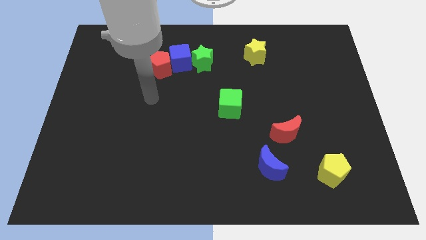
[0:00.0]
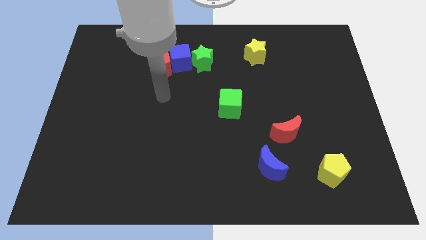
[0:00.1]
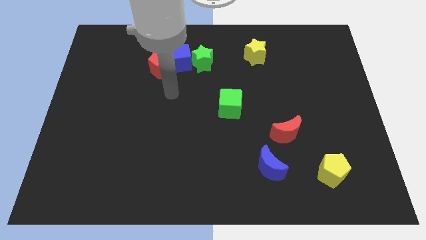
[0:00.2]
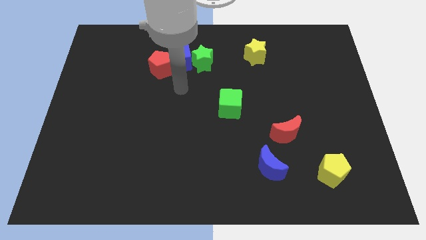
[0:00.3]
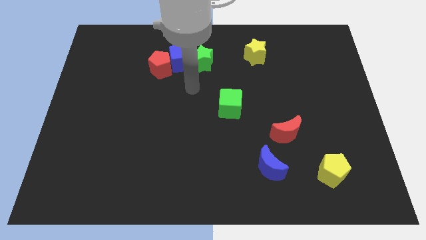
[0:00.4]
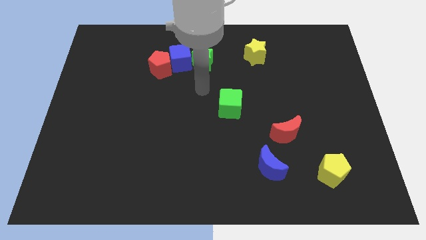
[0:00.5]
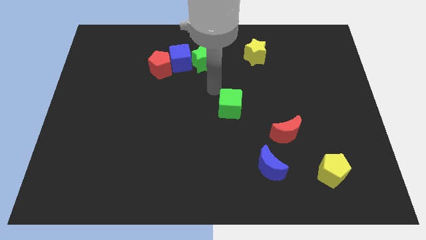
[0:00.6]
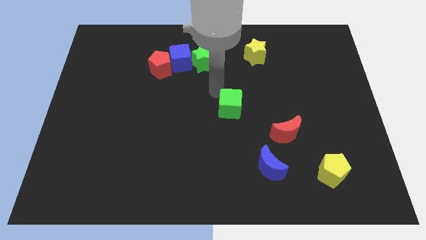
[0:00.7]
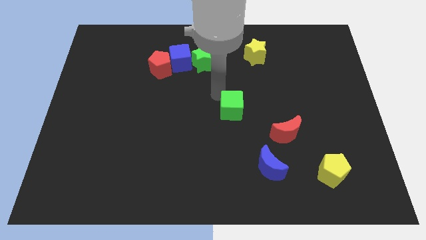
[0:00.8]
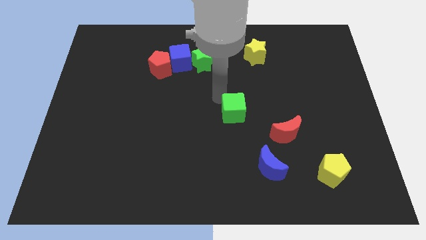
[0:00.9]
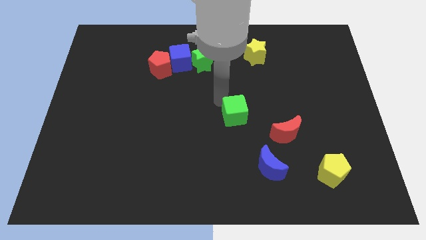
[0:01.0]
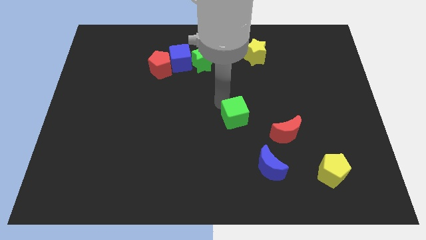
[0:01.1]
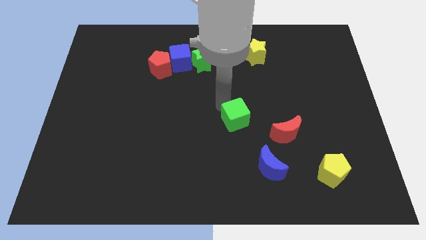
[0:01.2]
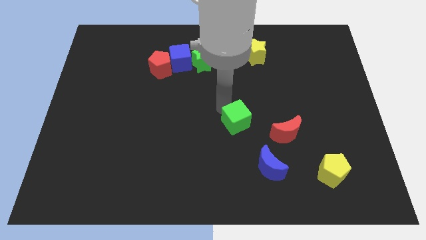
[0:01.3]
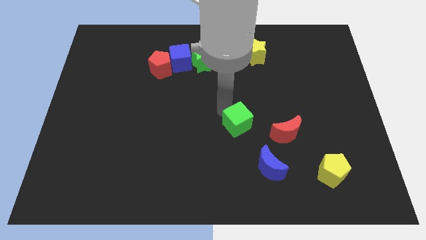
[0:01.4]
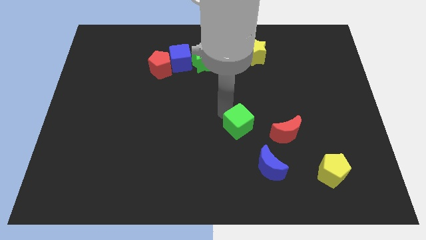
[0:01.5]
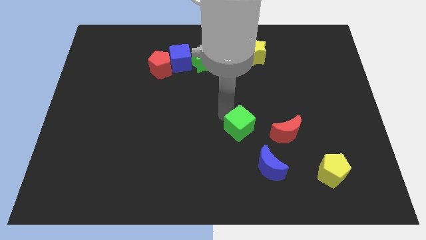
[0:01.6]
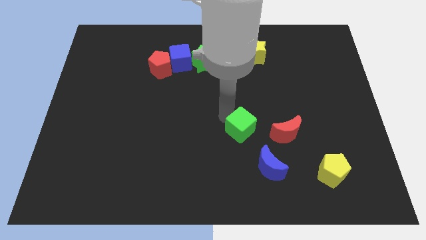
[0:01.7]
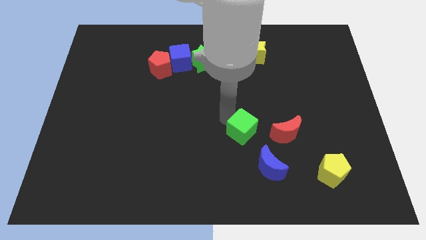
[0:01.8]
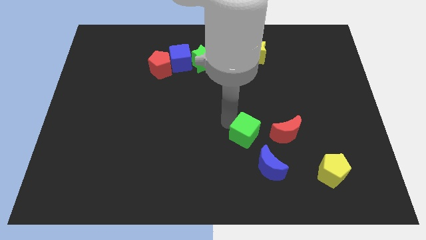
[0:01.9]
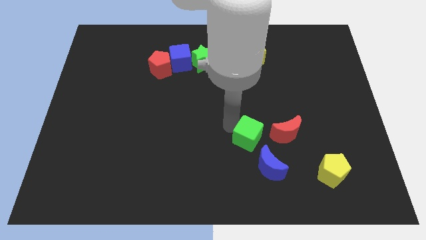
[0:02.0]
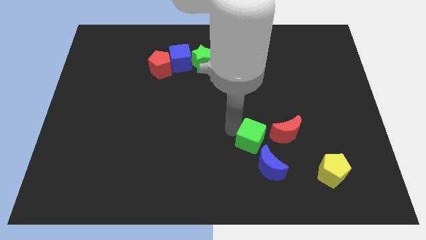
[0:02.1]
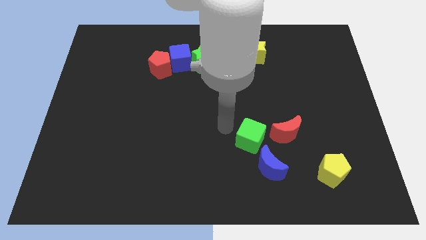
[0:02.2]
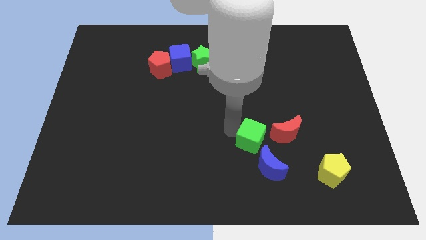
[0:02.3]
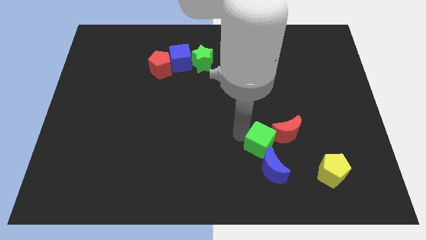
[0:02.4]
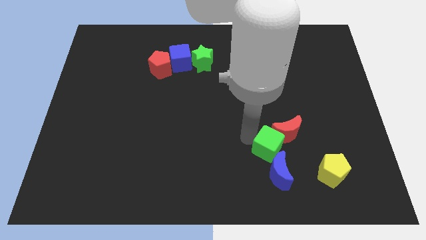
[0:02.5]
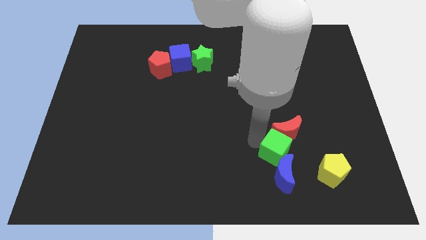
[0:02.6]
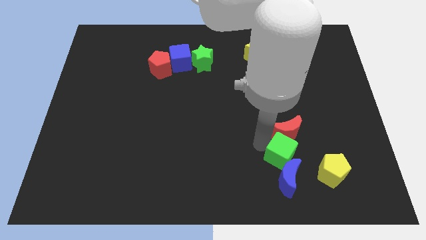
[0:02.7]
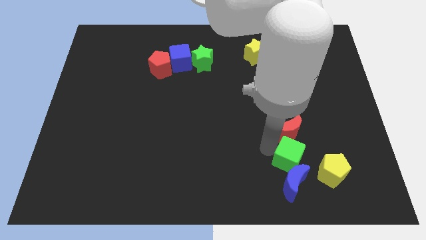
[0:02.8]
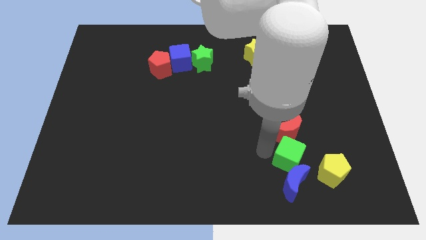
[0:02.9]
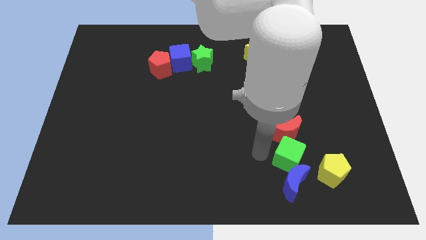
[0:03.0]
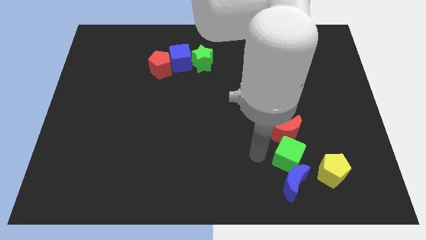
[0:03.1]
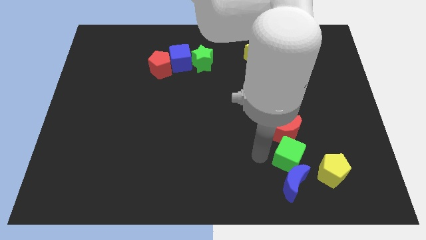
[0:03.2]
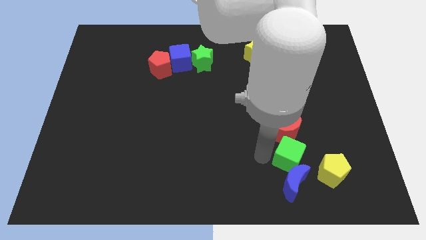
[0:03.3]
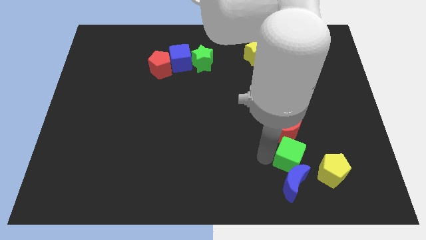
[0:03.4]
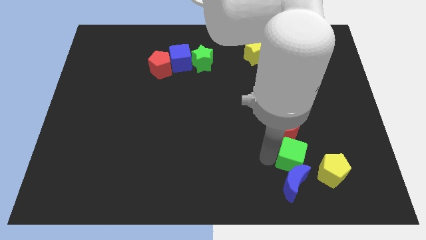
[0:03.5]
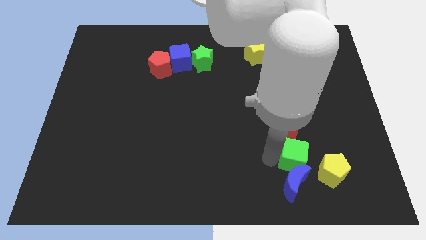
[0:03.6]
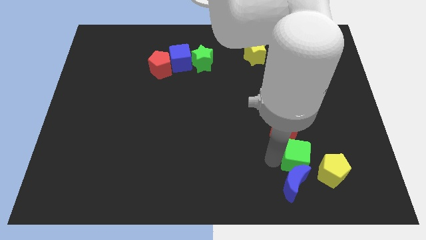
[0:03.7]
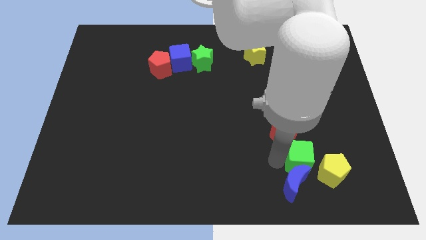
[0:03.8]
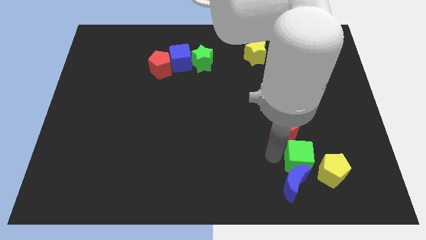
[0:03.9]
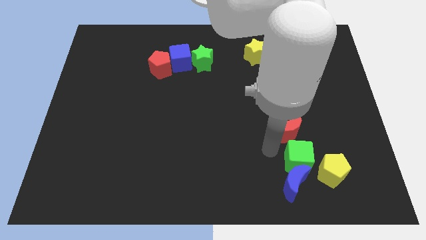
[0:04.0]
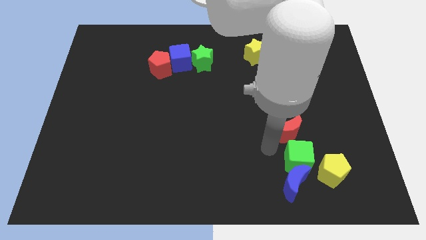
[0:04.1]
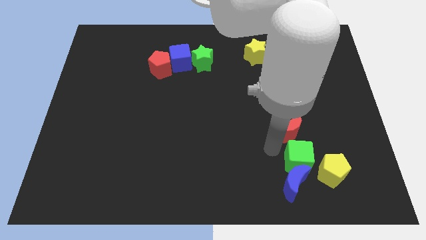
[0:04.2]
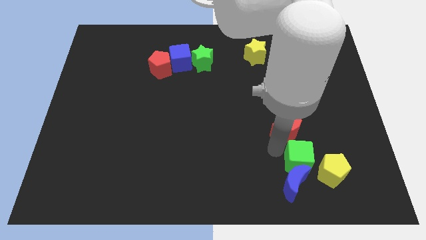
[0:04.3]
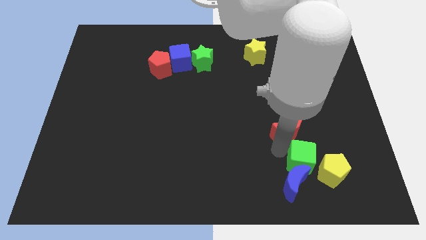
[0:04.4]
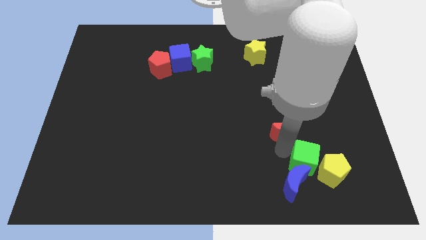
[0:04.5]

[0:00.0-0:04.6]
move the green cube close to the yellow pentagon

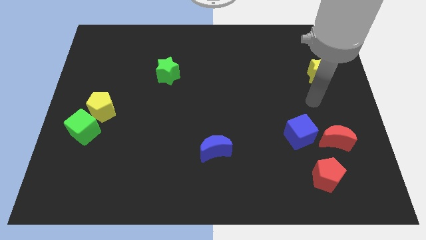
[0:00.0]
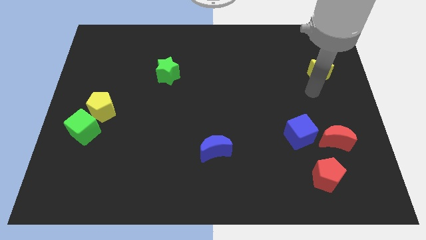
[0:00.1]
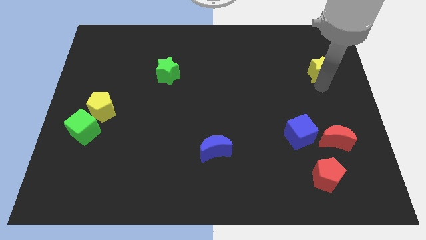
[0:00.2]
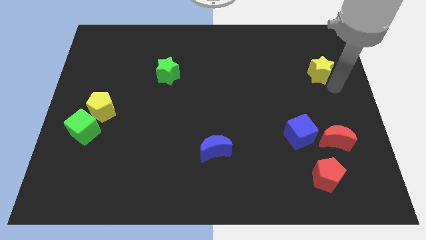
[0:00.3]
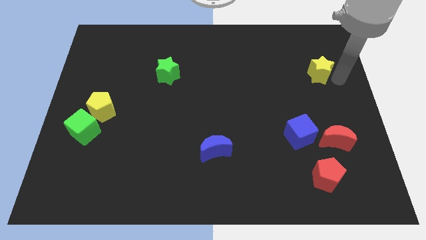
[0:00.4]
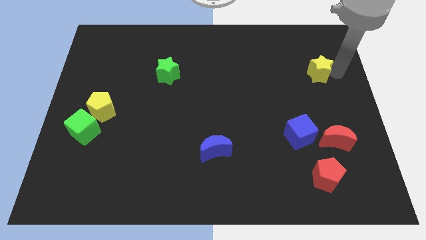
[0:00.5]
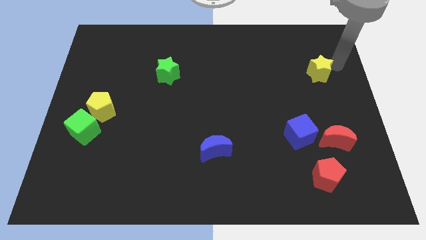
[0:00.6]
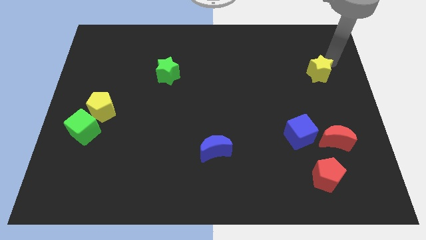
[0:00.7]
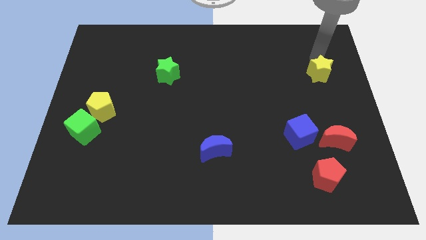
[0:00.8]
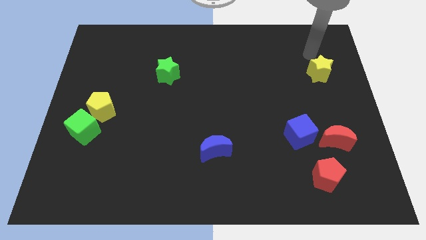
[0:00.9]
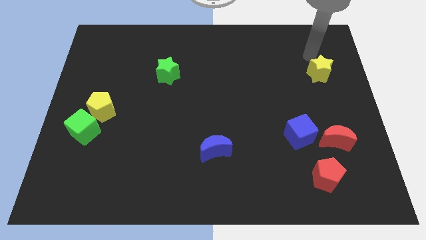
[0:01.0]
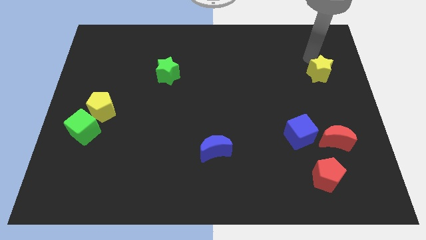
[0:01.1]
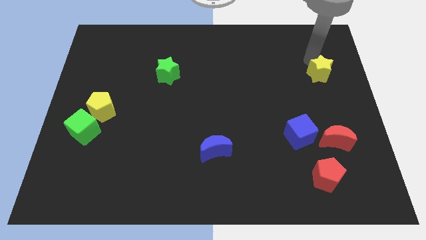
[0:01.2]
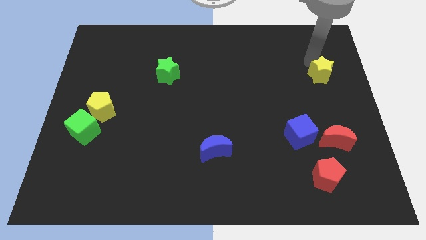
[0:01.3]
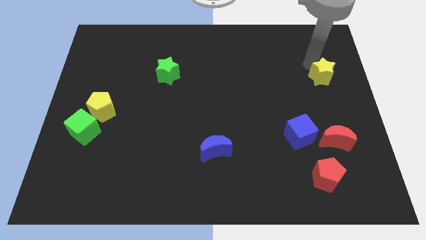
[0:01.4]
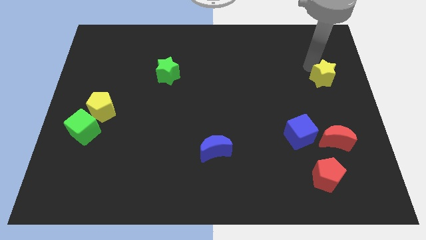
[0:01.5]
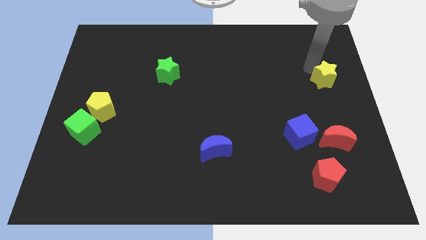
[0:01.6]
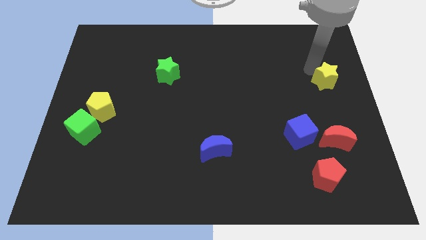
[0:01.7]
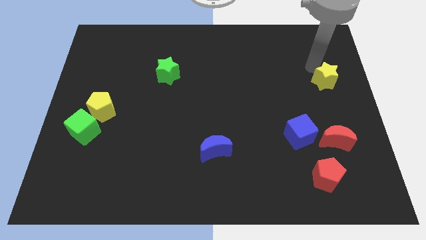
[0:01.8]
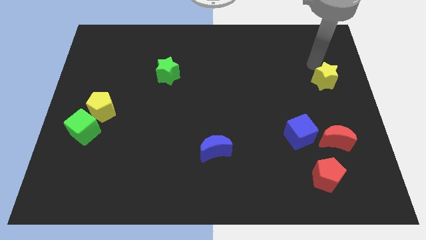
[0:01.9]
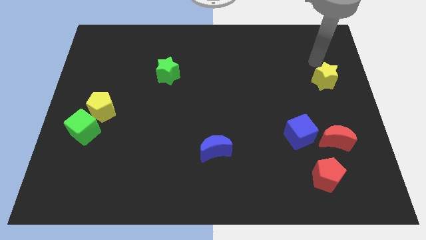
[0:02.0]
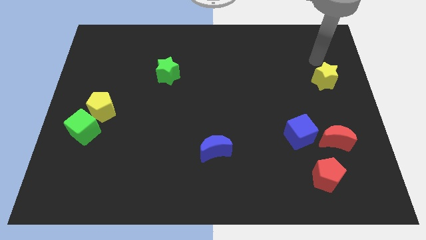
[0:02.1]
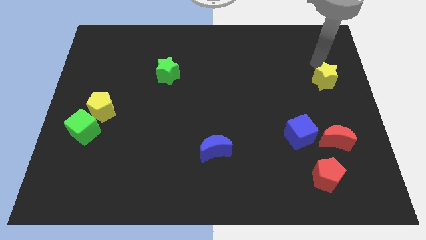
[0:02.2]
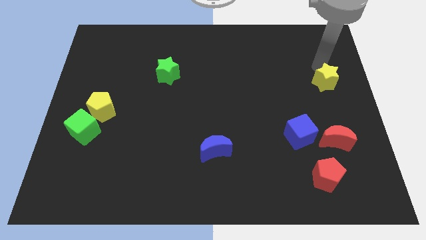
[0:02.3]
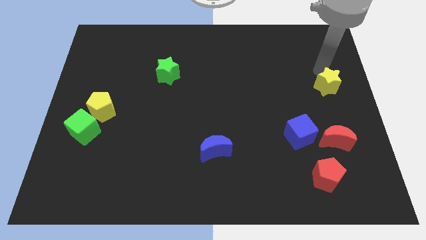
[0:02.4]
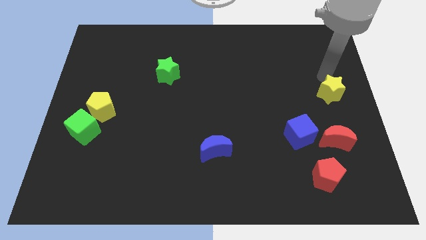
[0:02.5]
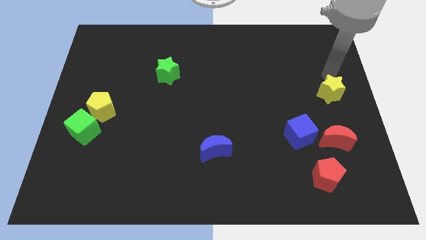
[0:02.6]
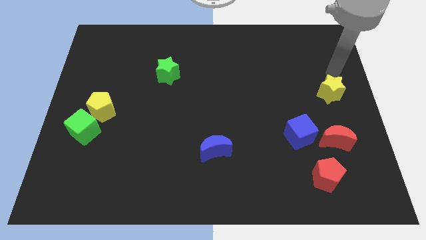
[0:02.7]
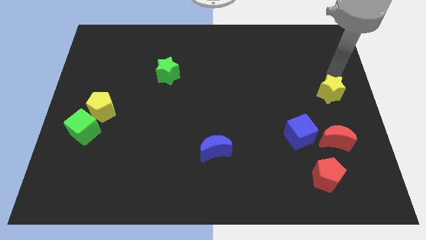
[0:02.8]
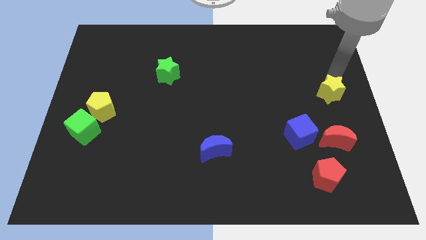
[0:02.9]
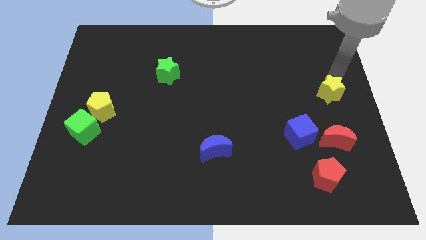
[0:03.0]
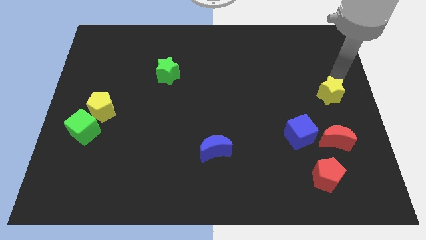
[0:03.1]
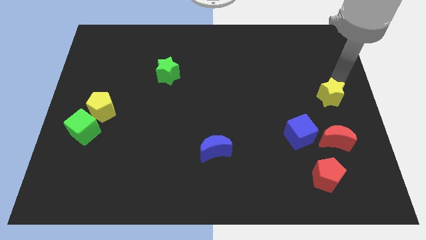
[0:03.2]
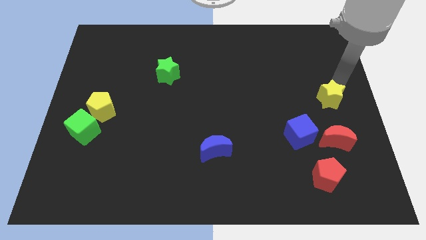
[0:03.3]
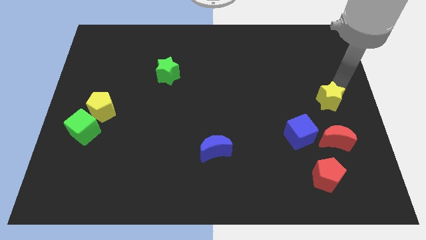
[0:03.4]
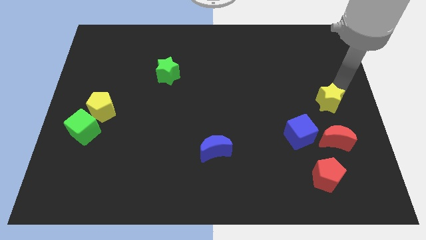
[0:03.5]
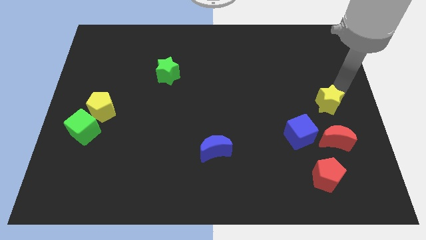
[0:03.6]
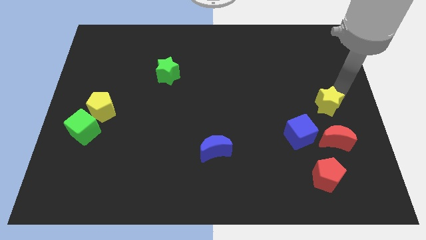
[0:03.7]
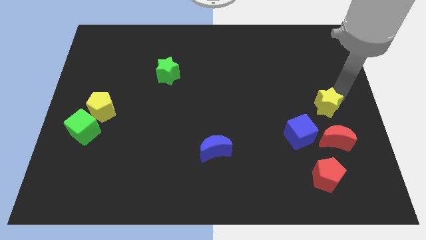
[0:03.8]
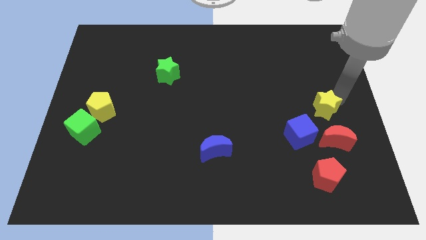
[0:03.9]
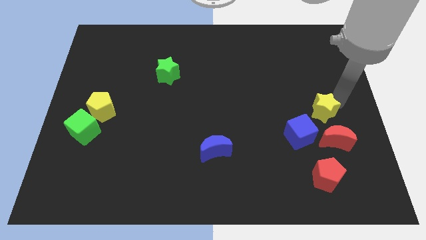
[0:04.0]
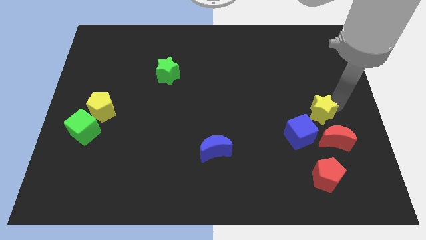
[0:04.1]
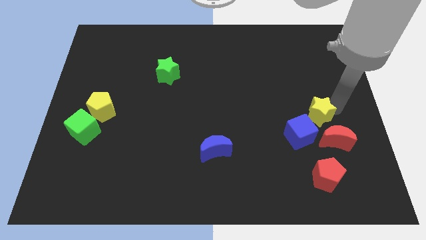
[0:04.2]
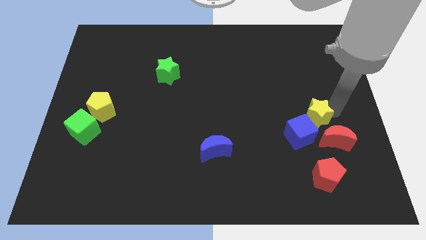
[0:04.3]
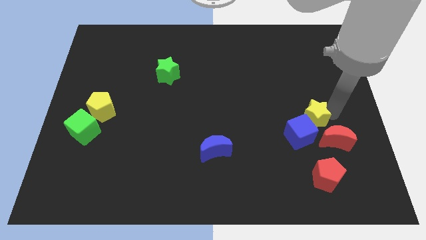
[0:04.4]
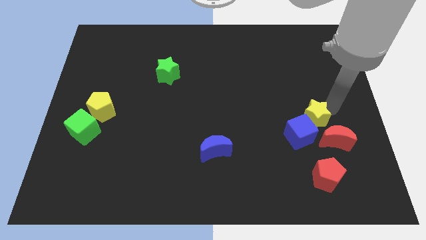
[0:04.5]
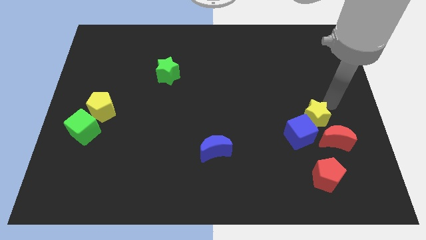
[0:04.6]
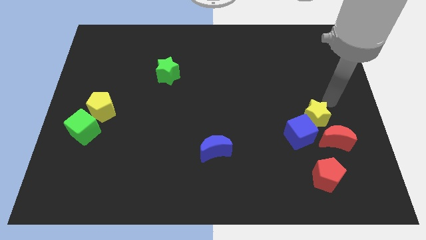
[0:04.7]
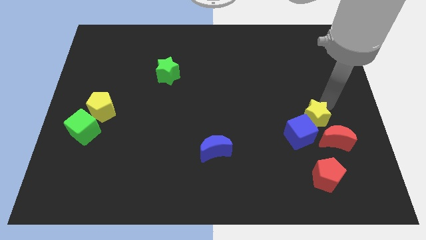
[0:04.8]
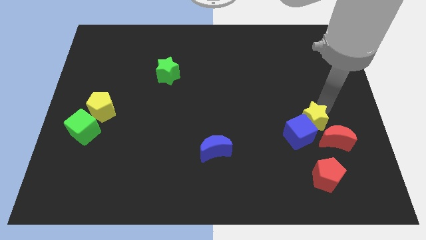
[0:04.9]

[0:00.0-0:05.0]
put the yellow star close to the blue cube
